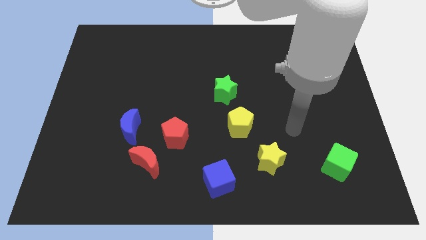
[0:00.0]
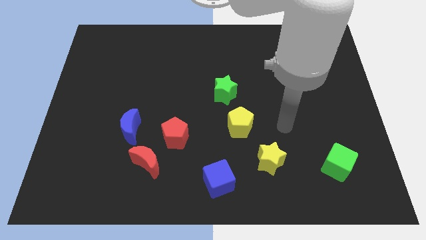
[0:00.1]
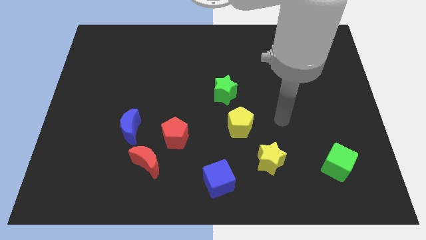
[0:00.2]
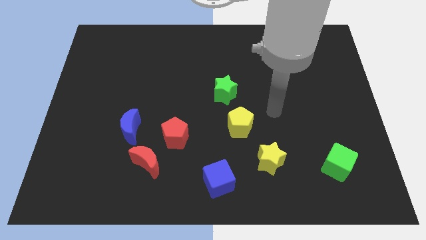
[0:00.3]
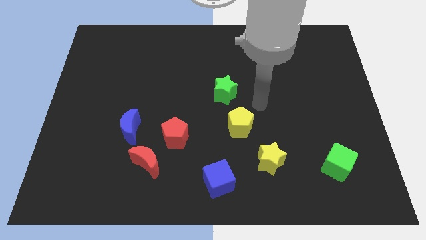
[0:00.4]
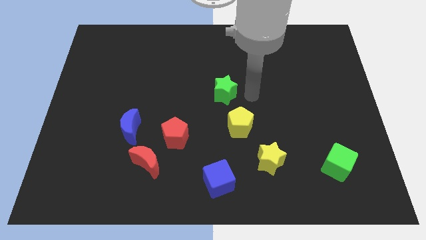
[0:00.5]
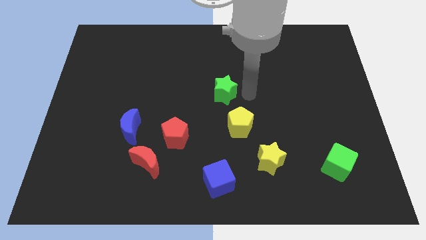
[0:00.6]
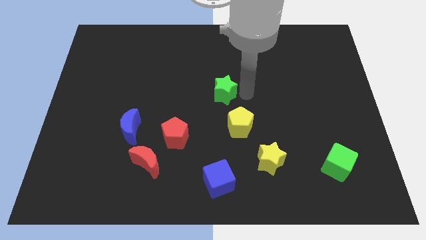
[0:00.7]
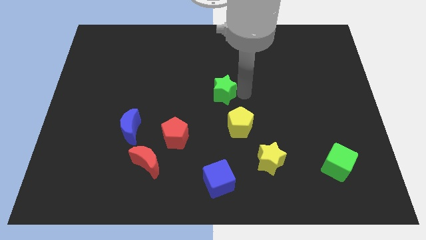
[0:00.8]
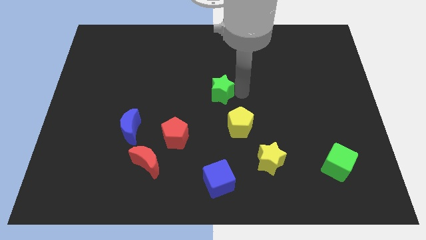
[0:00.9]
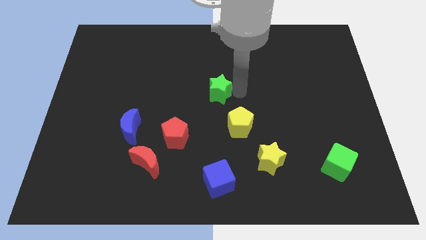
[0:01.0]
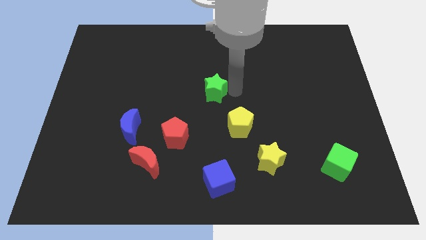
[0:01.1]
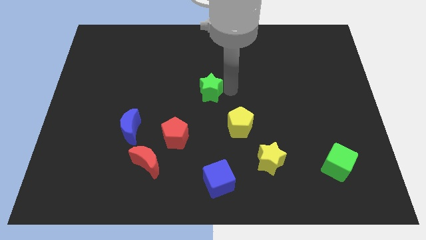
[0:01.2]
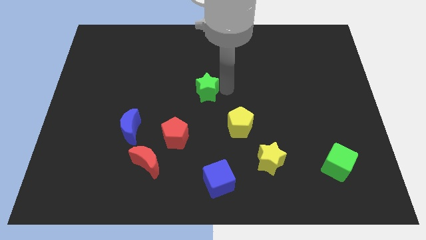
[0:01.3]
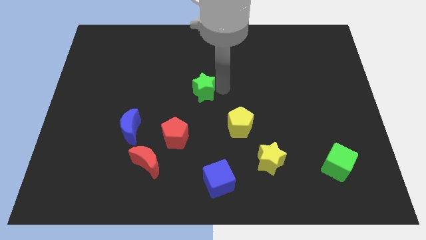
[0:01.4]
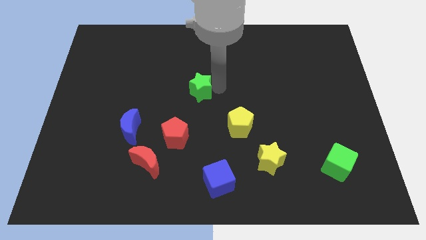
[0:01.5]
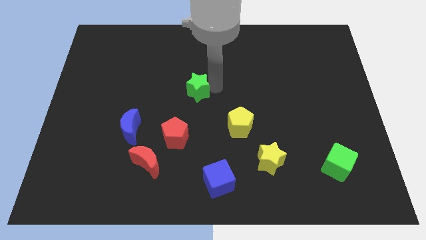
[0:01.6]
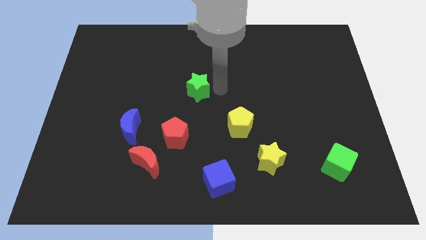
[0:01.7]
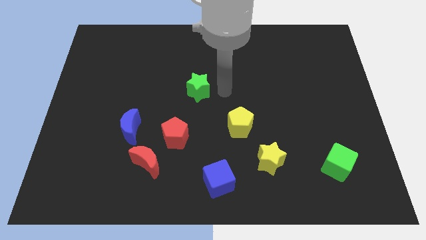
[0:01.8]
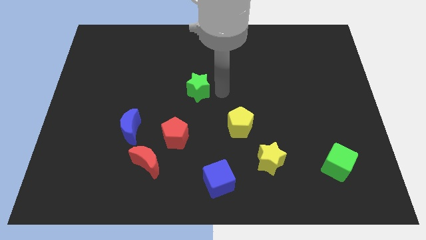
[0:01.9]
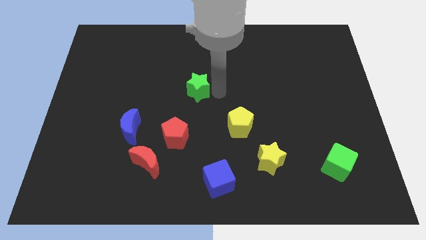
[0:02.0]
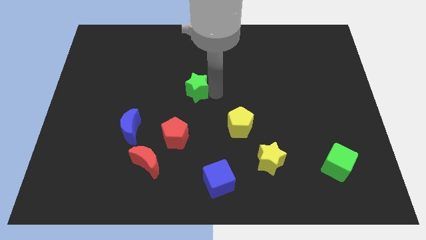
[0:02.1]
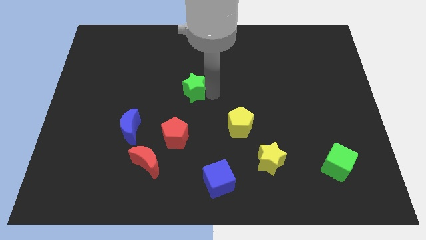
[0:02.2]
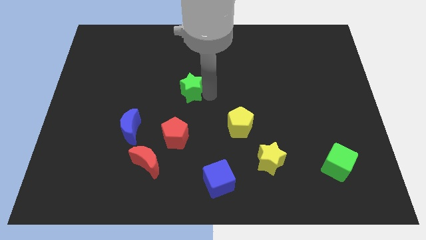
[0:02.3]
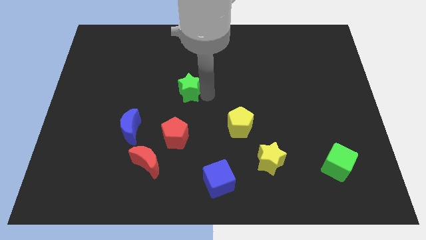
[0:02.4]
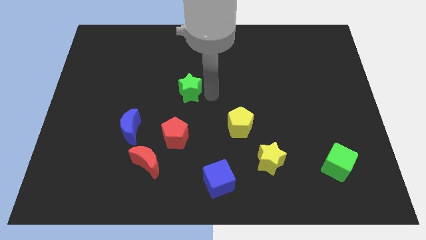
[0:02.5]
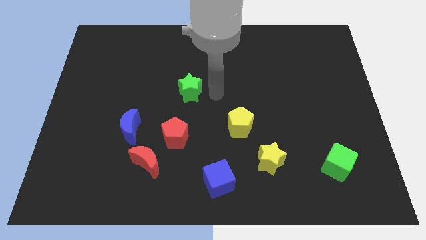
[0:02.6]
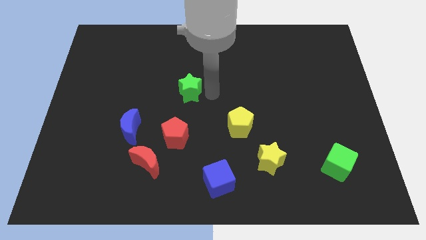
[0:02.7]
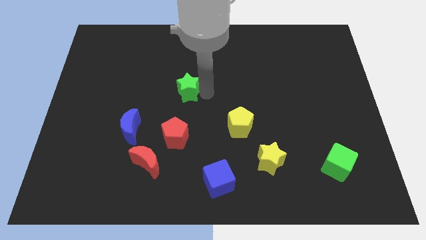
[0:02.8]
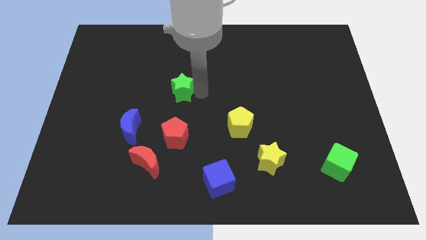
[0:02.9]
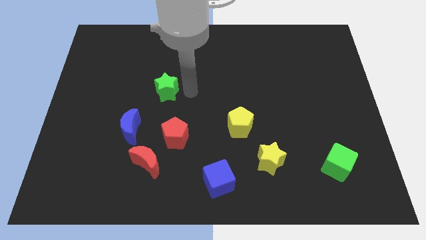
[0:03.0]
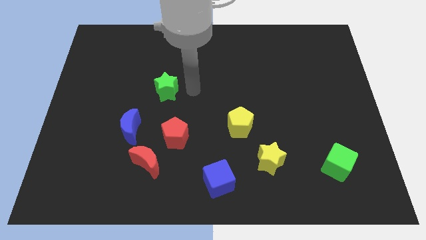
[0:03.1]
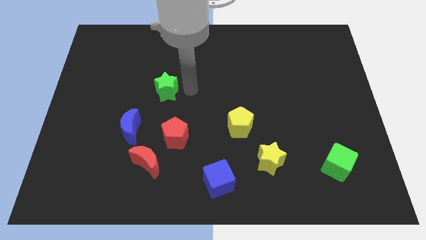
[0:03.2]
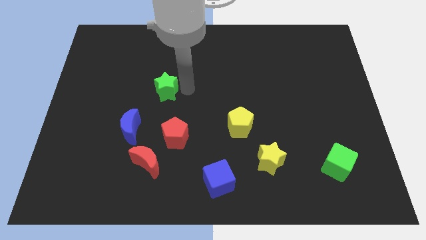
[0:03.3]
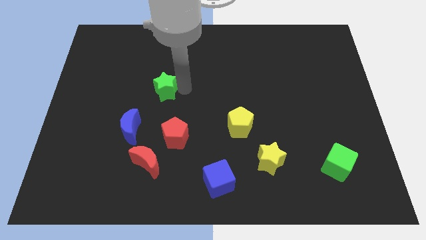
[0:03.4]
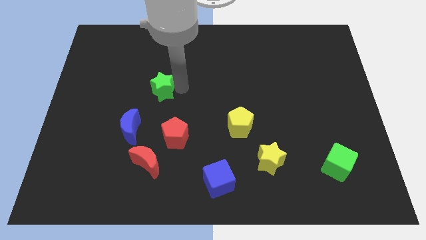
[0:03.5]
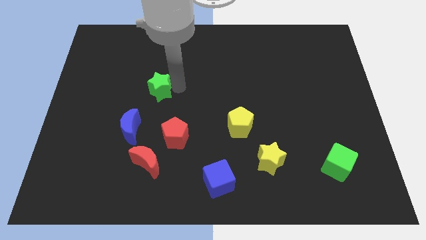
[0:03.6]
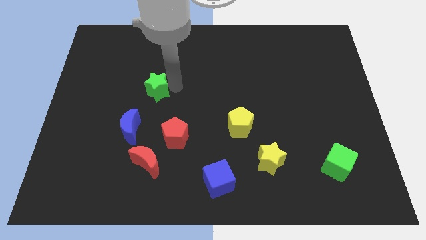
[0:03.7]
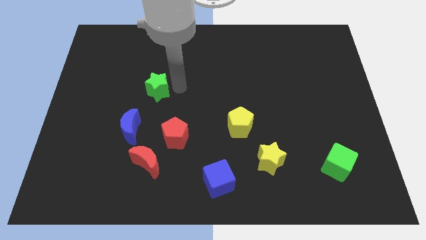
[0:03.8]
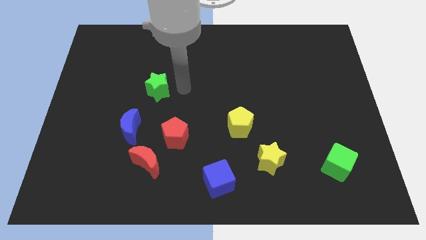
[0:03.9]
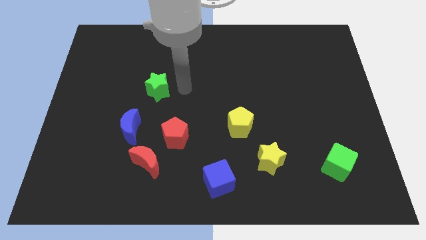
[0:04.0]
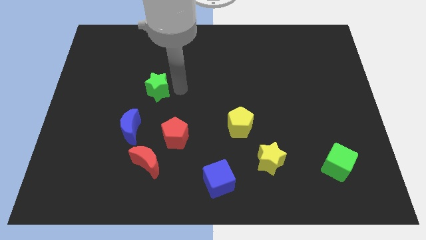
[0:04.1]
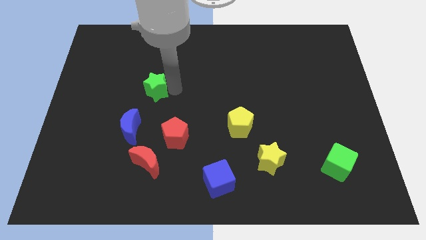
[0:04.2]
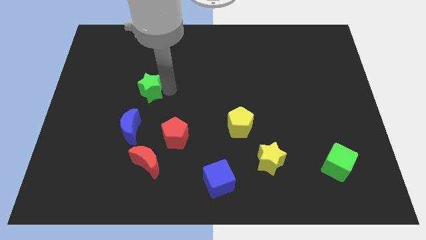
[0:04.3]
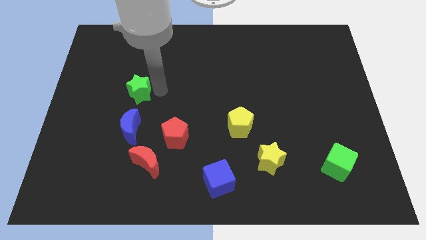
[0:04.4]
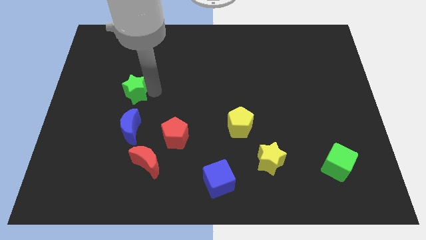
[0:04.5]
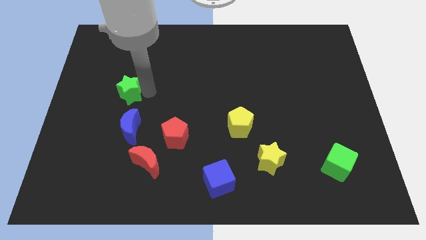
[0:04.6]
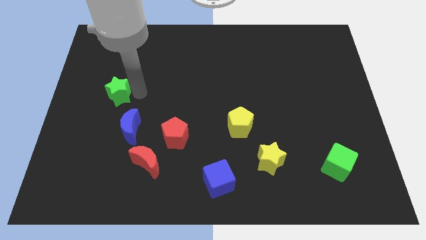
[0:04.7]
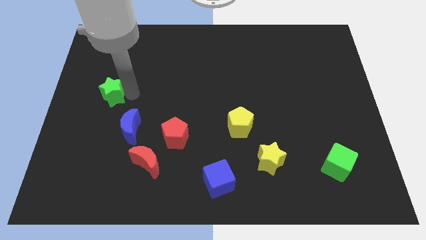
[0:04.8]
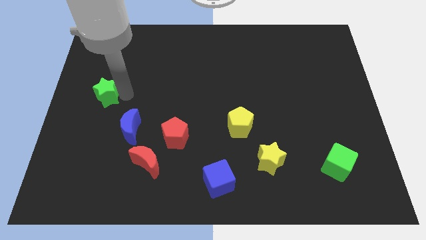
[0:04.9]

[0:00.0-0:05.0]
push the green star to the center left

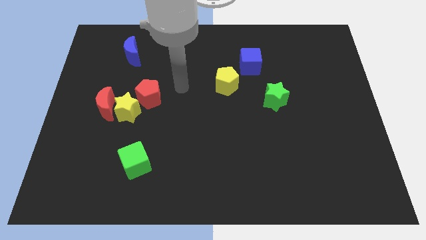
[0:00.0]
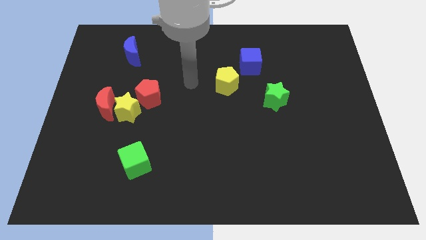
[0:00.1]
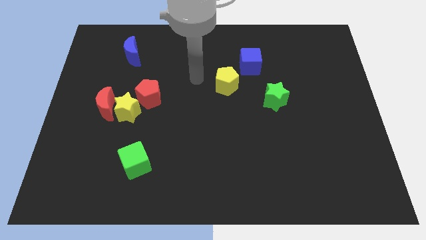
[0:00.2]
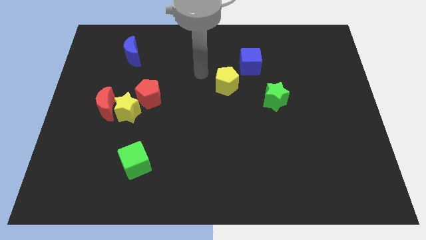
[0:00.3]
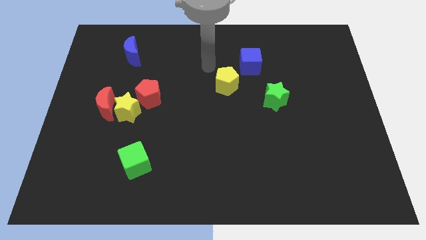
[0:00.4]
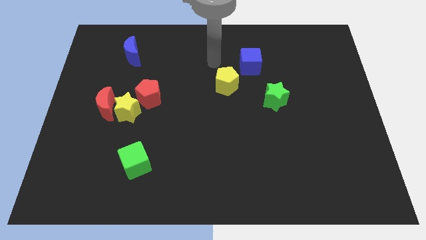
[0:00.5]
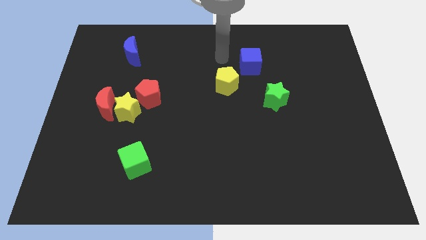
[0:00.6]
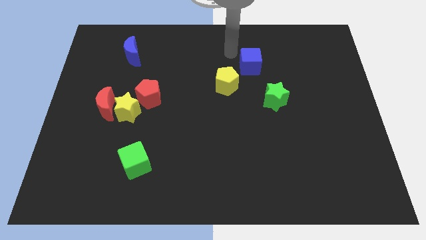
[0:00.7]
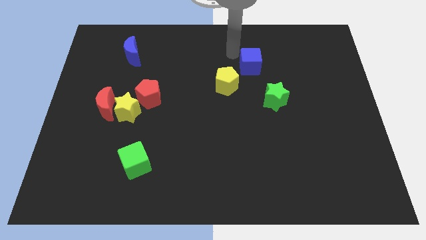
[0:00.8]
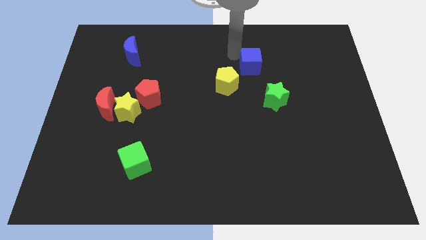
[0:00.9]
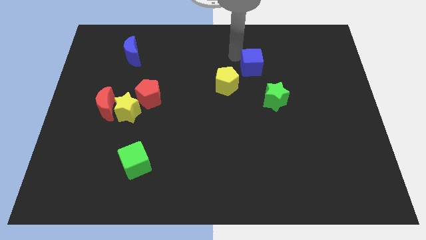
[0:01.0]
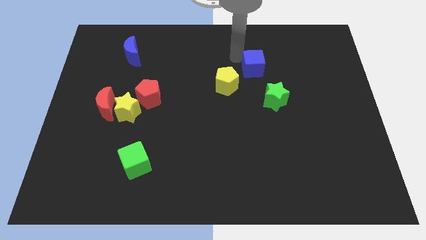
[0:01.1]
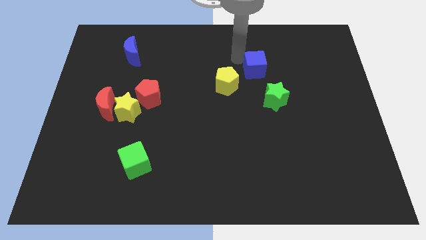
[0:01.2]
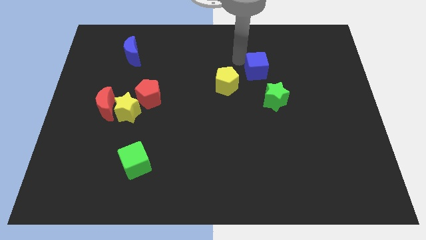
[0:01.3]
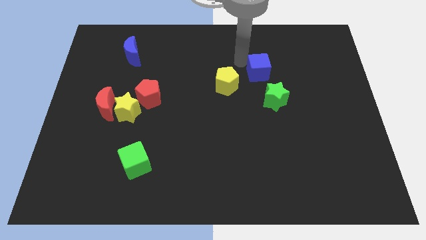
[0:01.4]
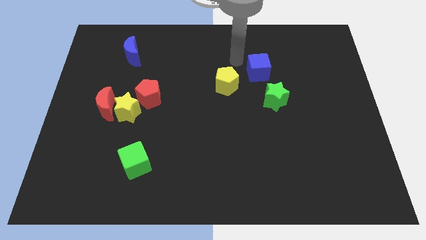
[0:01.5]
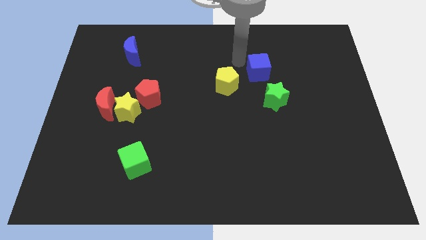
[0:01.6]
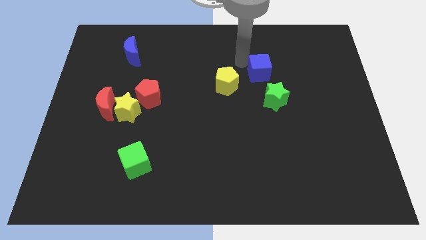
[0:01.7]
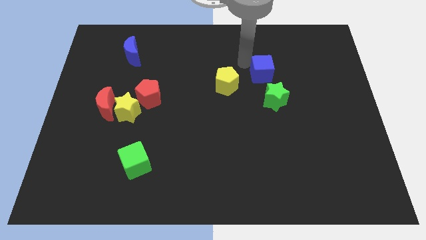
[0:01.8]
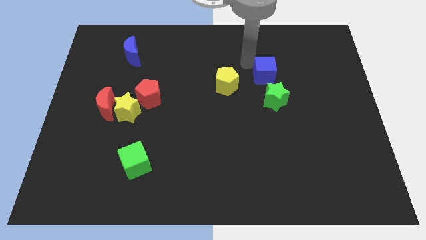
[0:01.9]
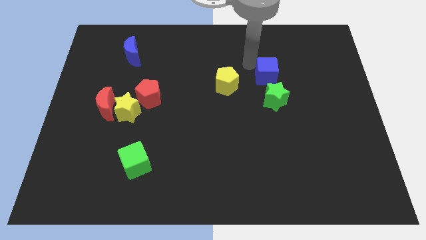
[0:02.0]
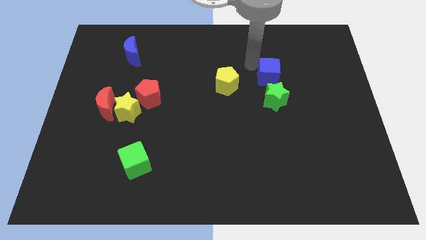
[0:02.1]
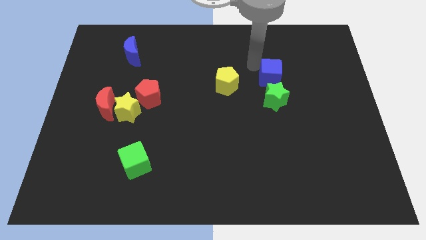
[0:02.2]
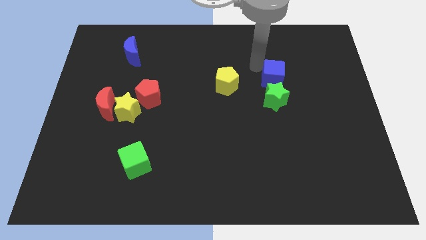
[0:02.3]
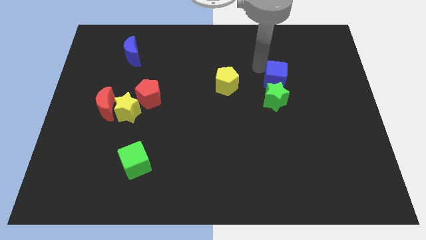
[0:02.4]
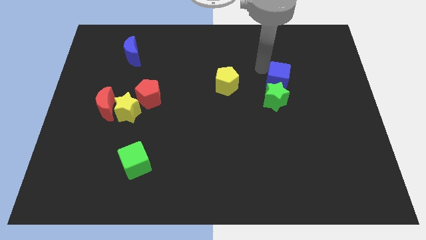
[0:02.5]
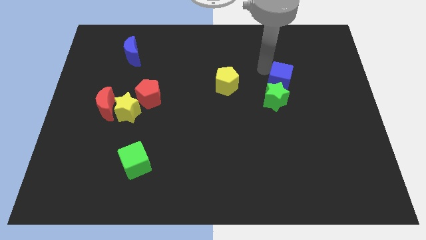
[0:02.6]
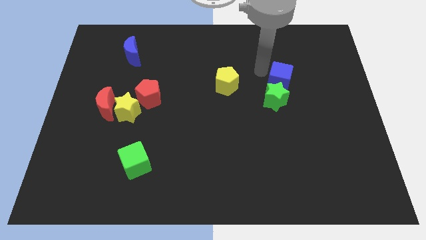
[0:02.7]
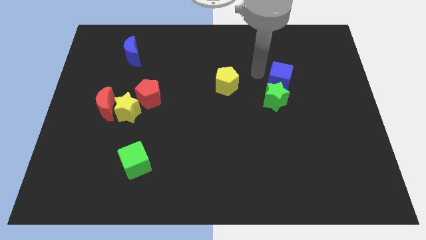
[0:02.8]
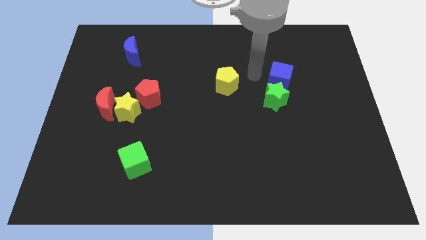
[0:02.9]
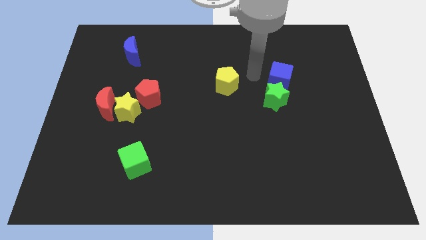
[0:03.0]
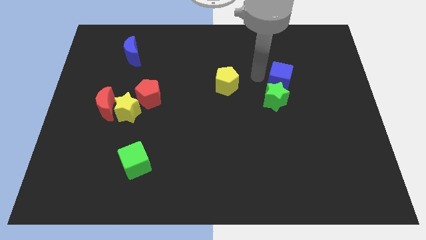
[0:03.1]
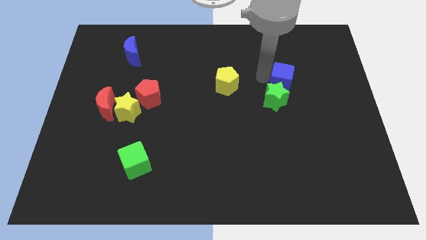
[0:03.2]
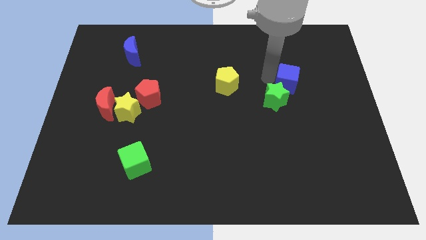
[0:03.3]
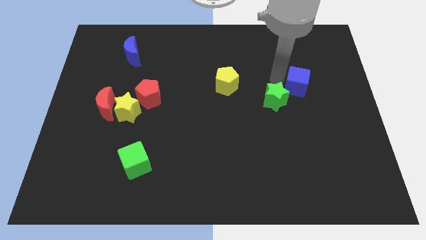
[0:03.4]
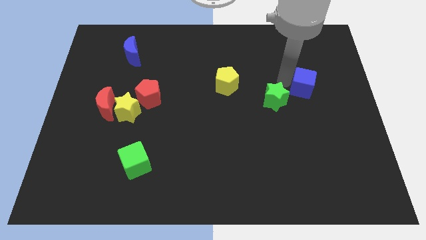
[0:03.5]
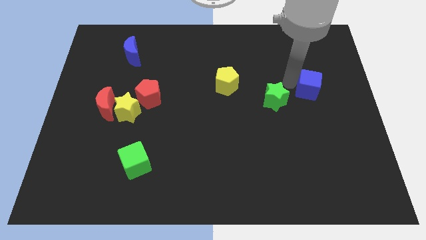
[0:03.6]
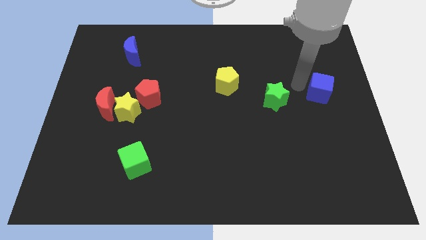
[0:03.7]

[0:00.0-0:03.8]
put the blue cube to the right side
